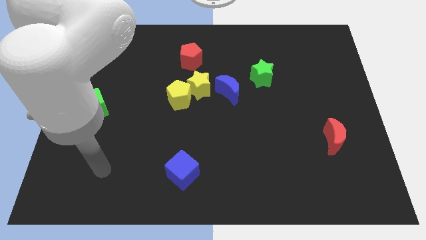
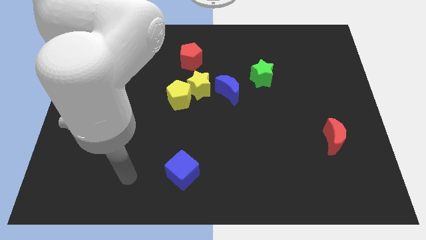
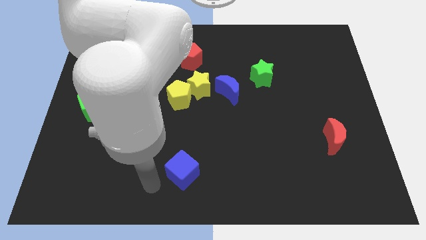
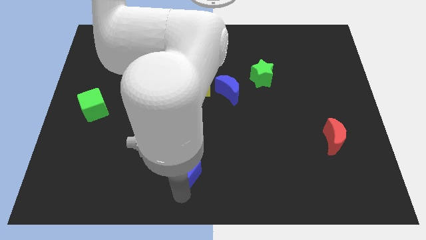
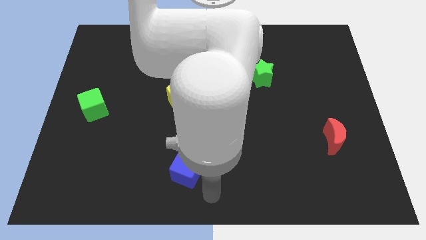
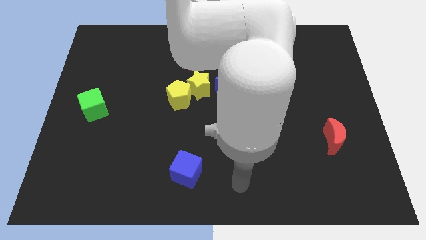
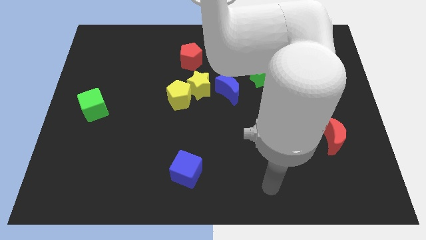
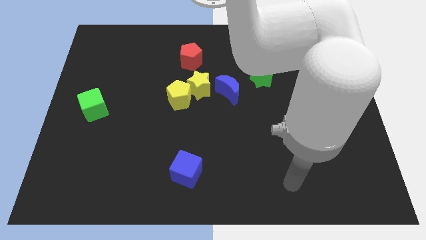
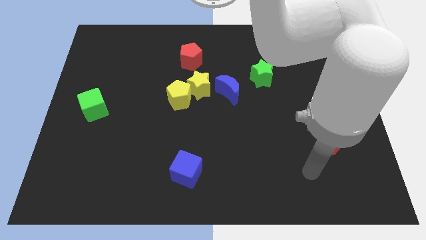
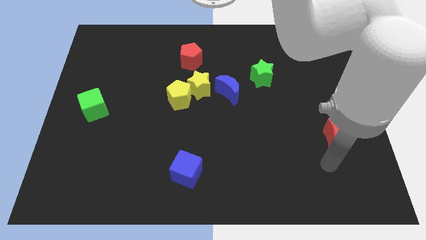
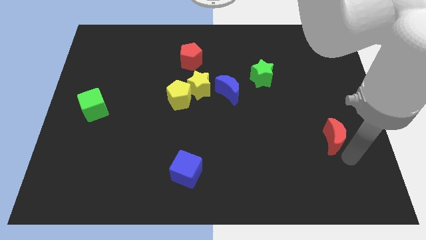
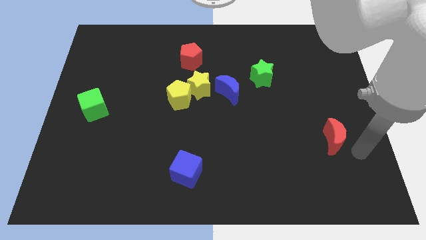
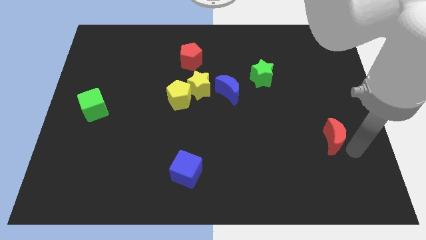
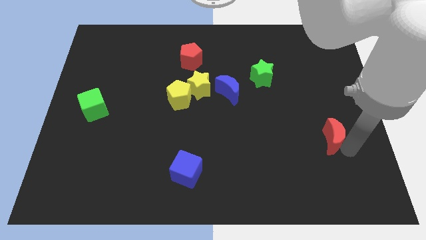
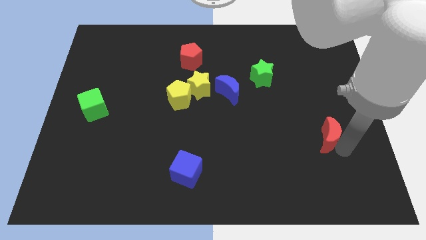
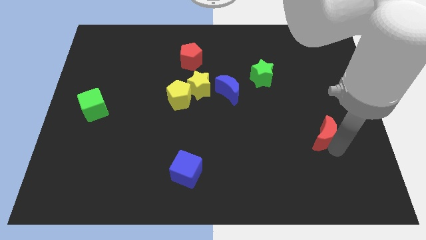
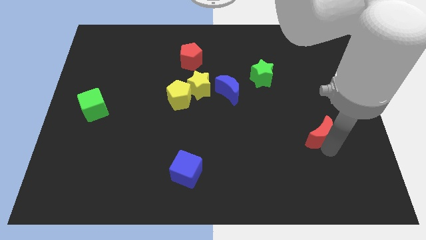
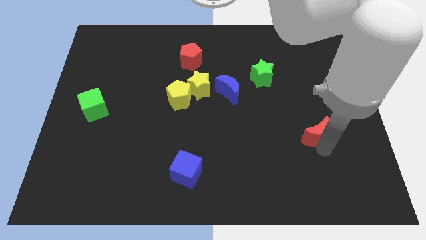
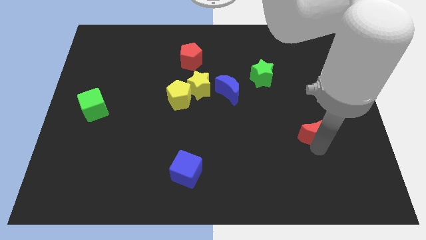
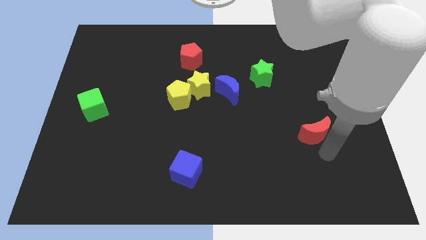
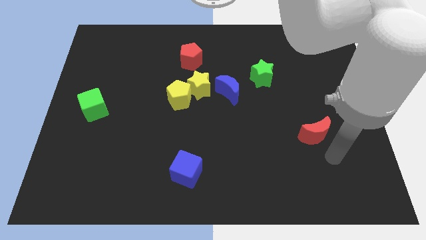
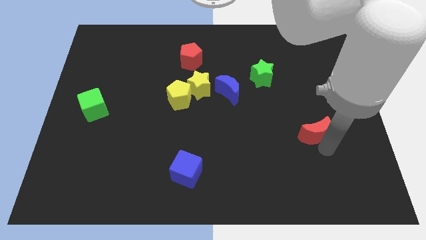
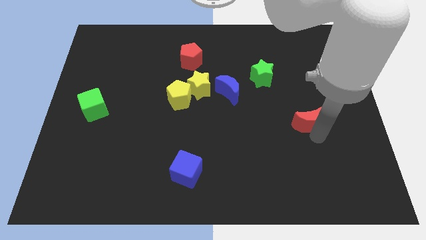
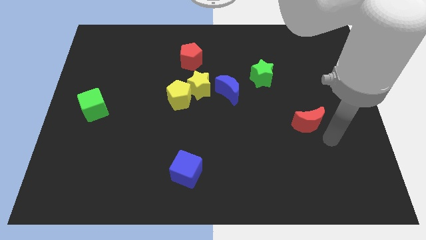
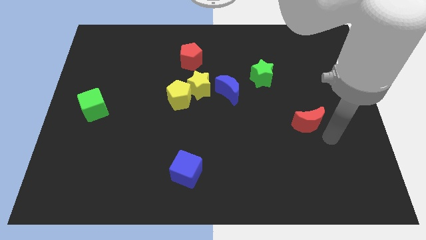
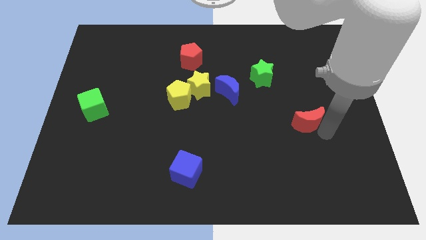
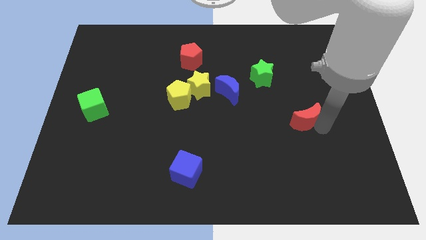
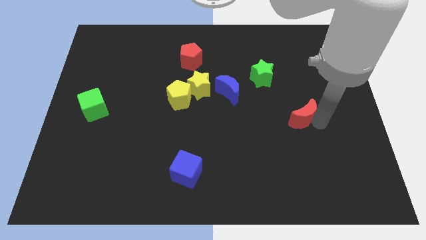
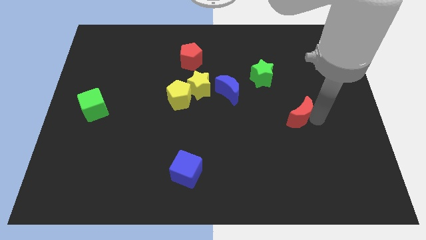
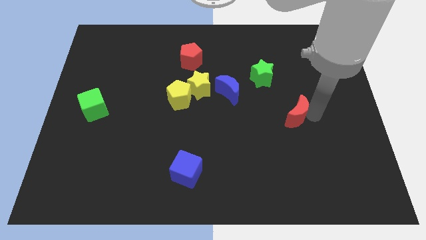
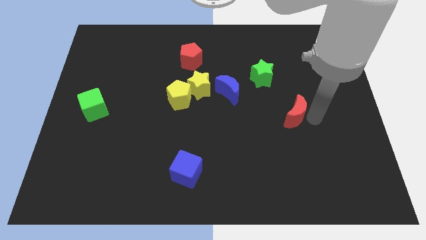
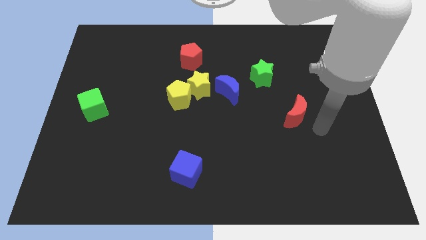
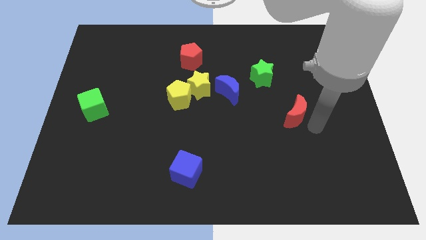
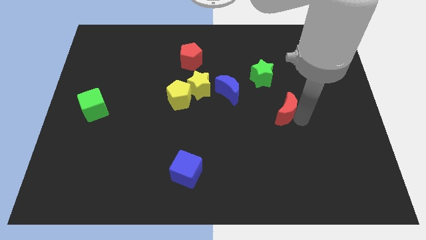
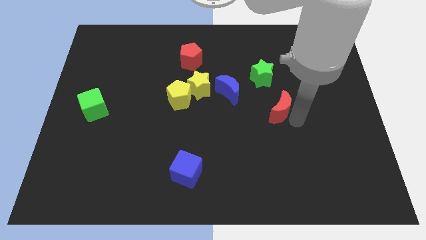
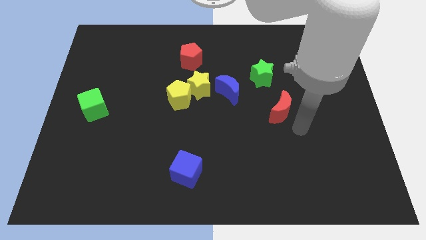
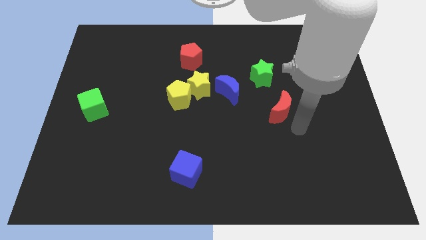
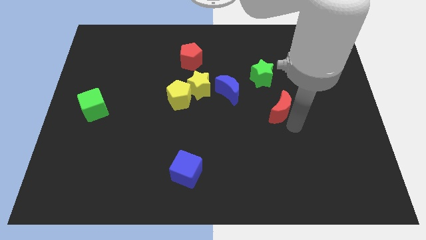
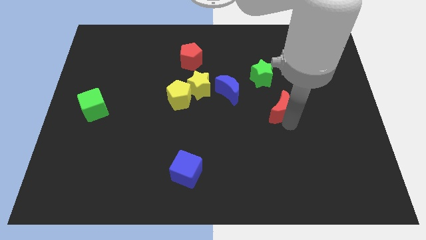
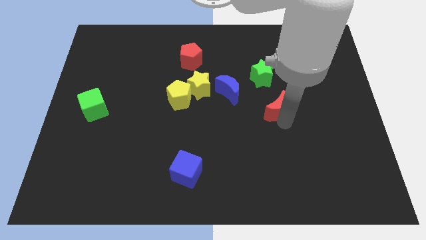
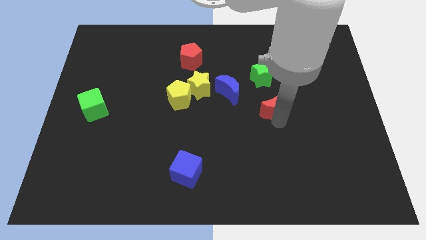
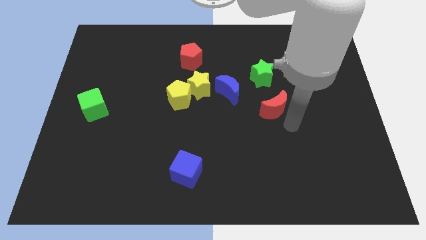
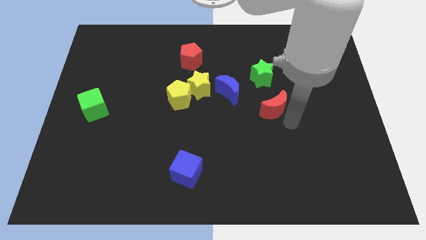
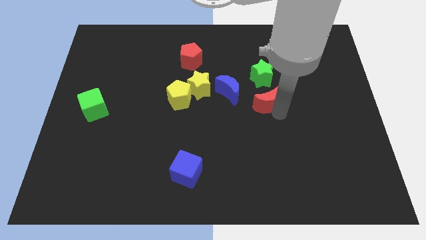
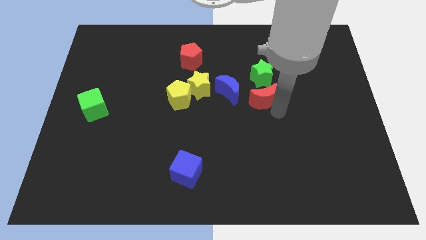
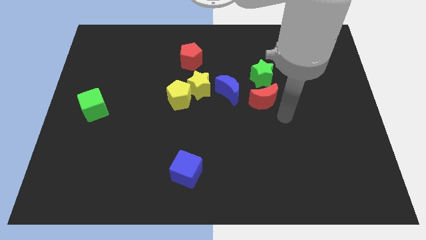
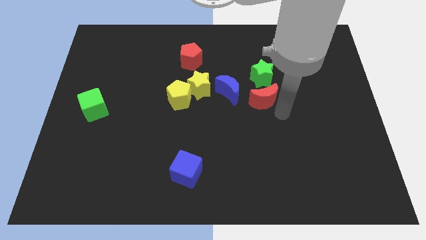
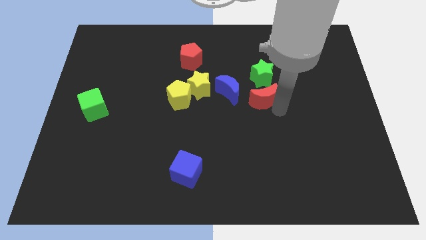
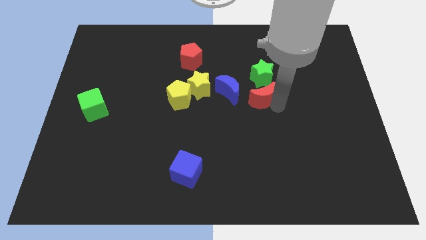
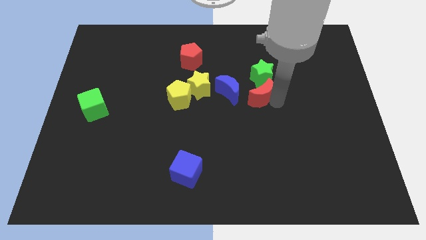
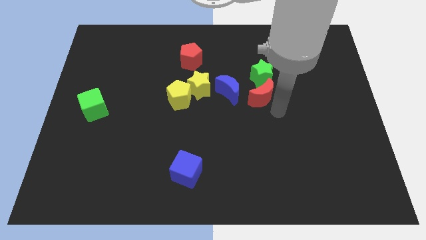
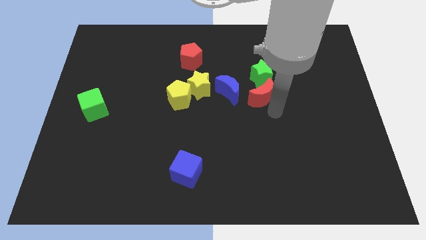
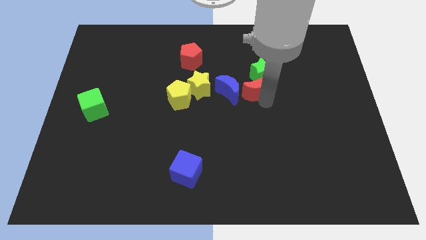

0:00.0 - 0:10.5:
slide the red moon up and to the left diagonally

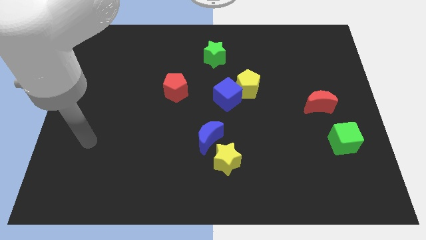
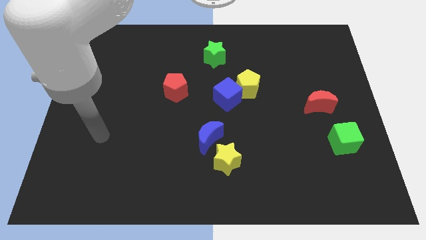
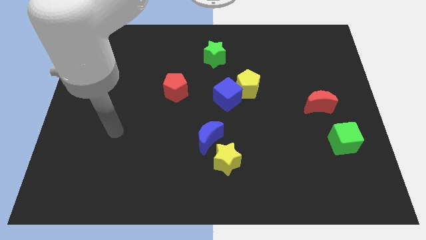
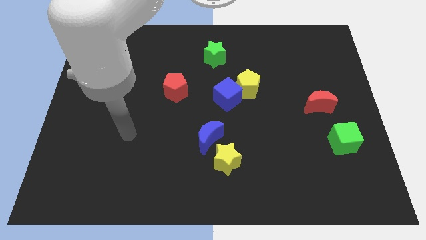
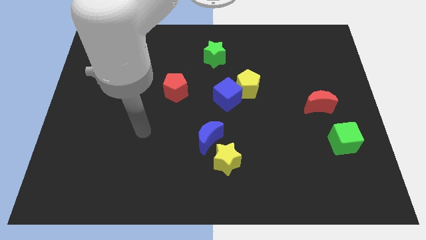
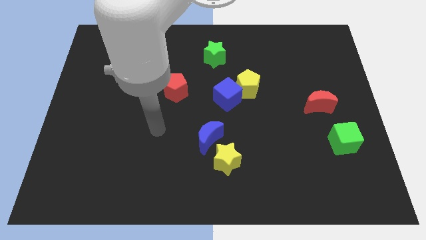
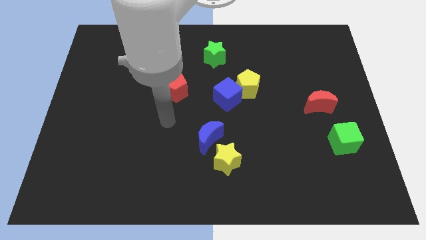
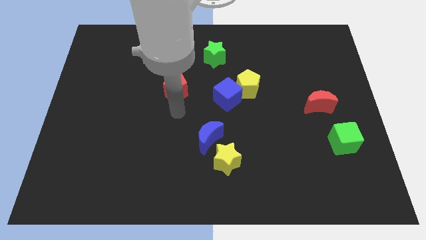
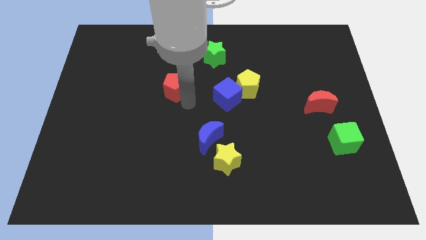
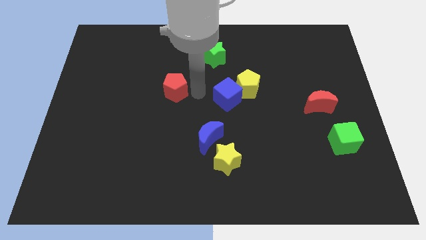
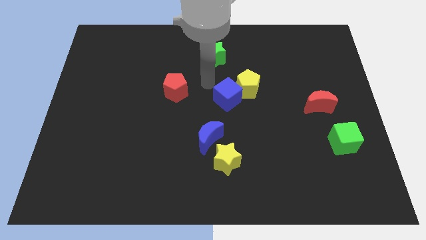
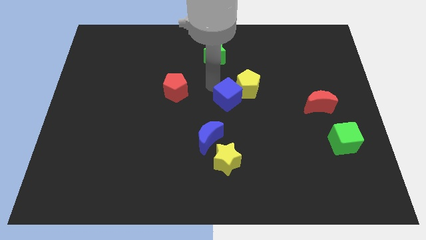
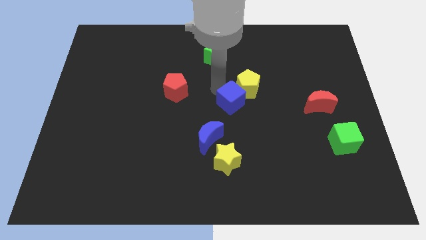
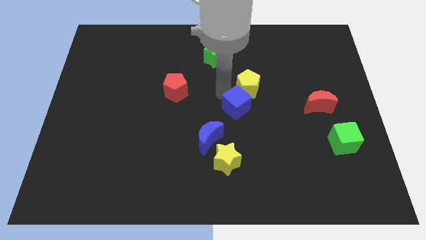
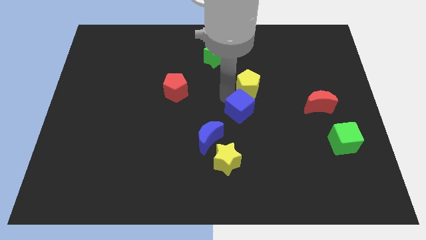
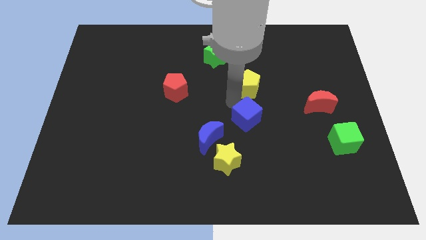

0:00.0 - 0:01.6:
push the blue cube down and to the right diagonally somewhat

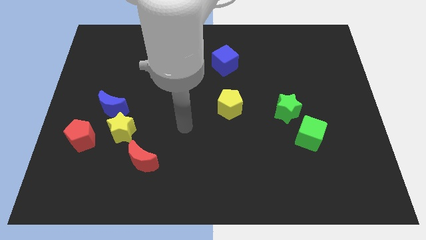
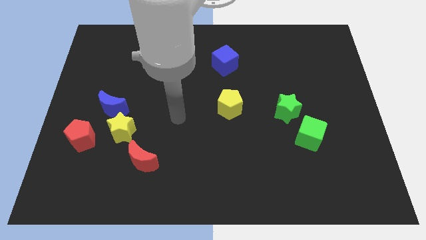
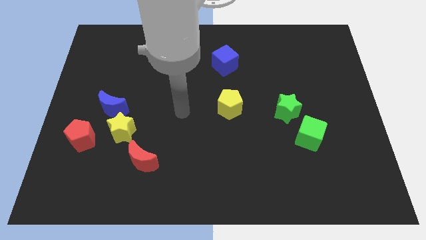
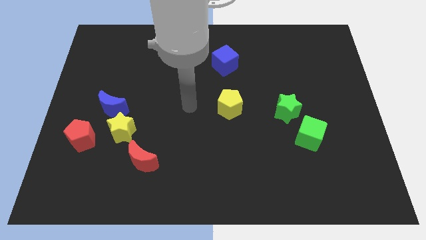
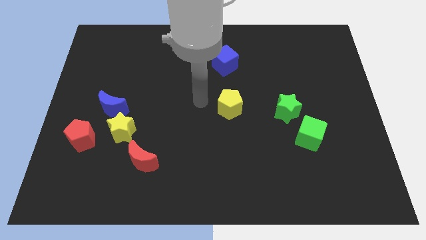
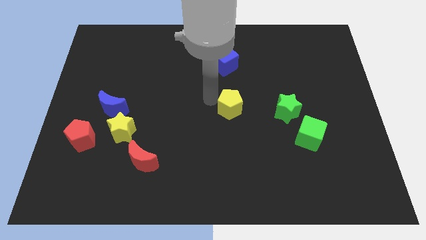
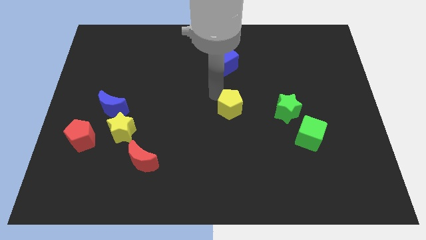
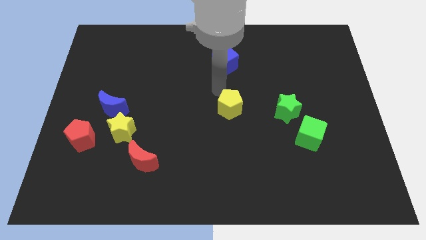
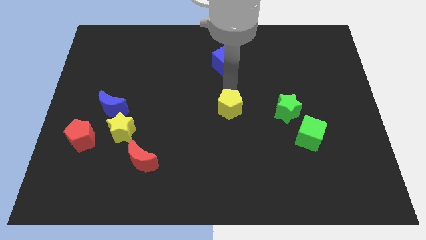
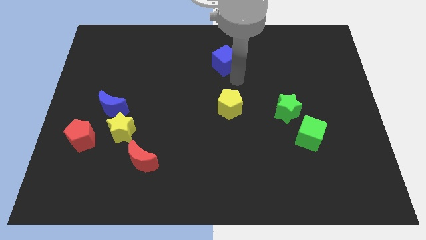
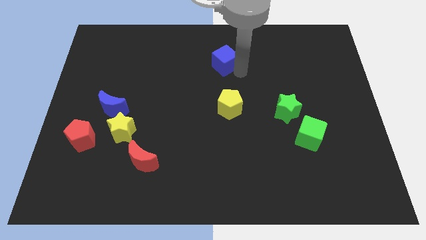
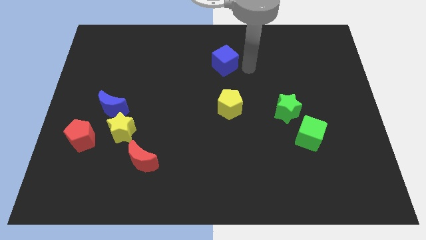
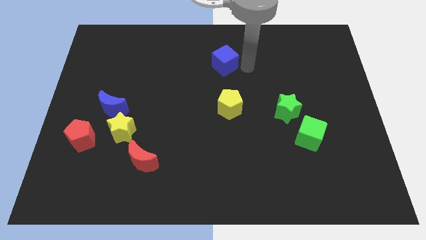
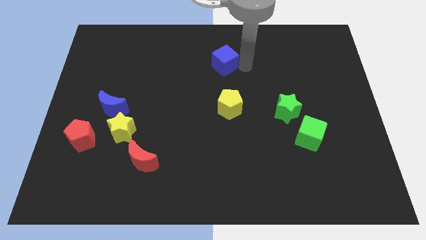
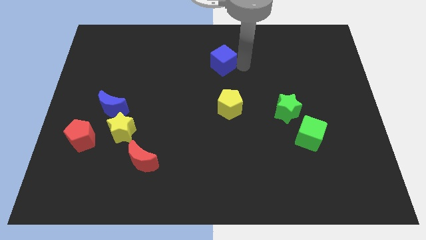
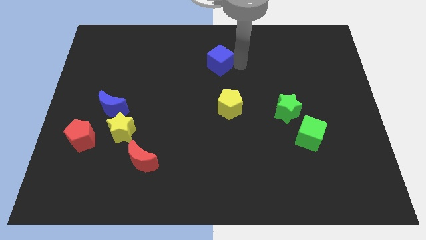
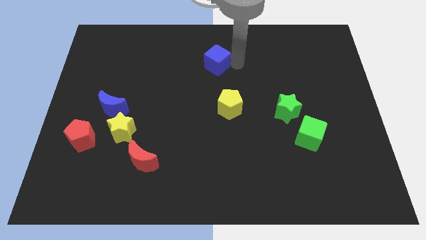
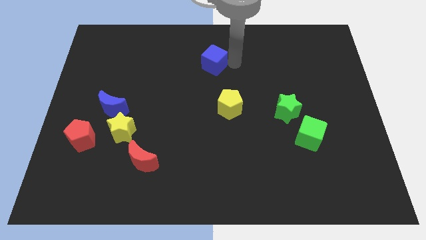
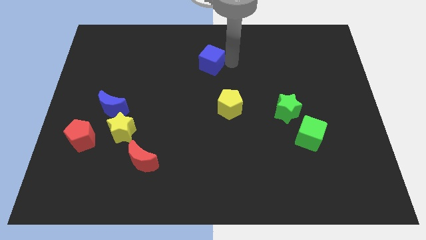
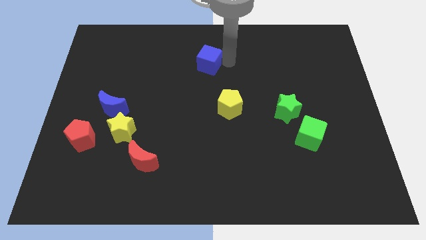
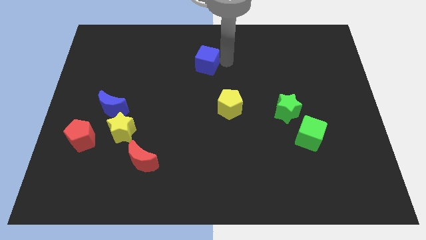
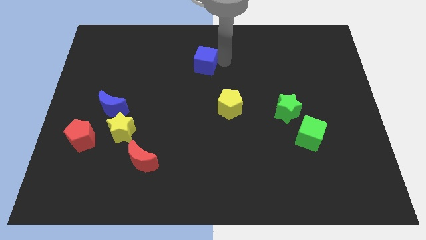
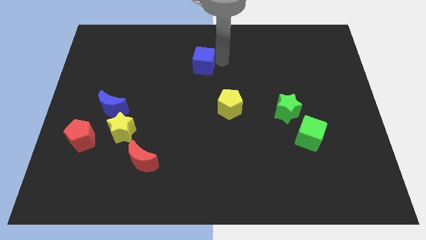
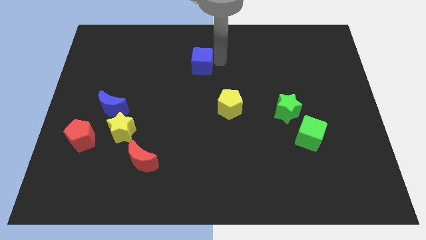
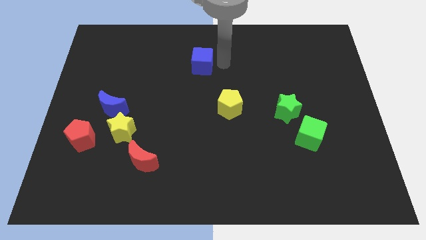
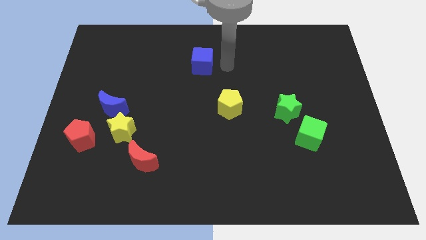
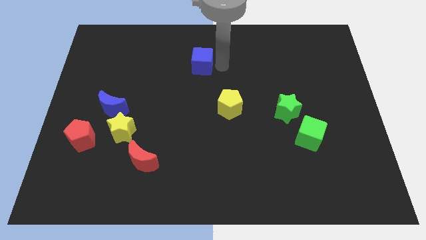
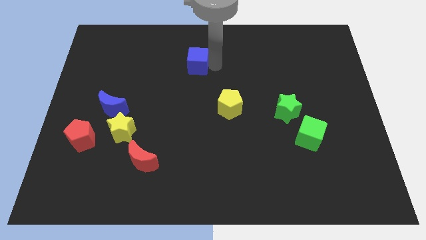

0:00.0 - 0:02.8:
slide the blue cube slightly to the left
